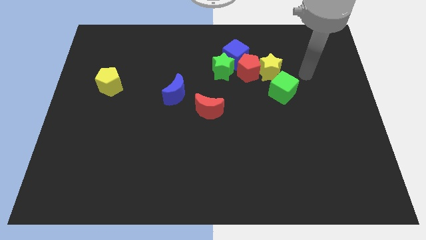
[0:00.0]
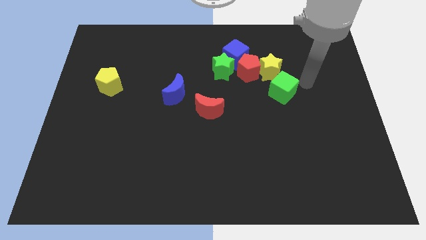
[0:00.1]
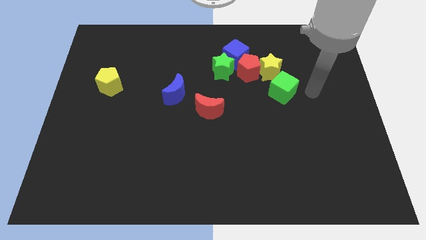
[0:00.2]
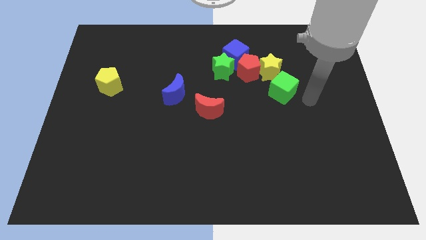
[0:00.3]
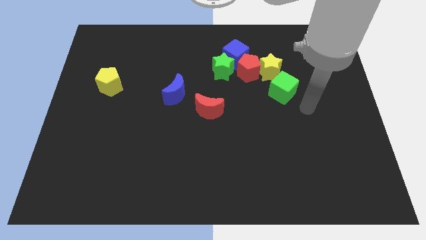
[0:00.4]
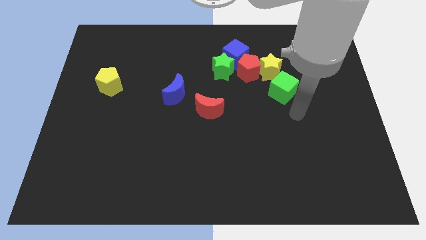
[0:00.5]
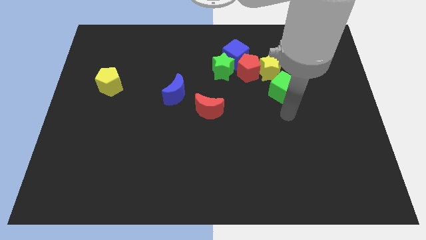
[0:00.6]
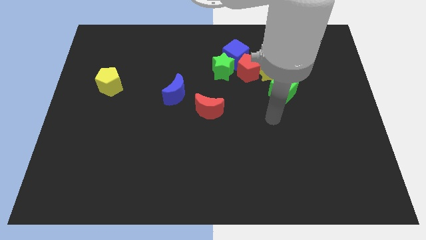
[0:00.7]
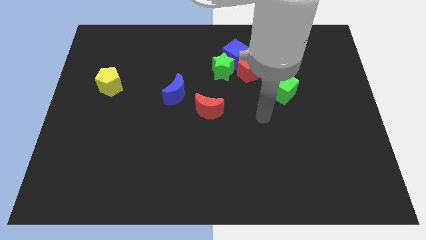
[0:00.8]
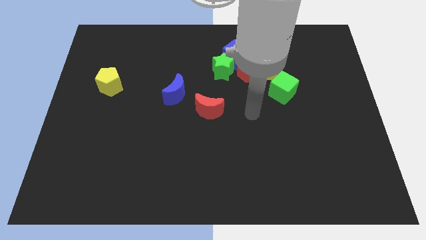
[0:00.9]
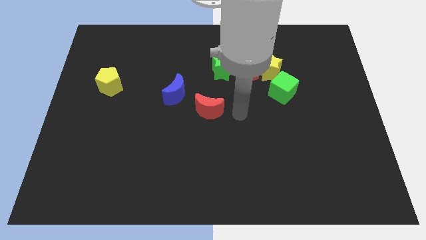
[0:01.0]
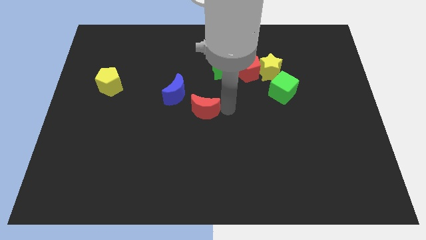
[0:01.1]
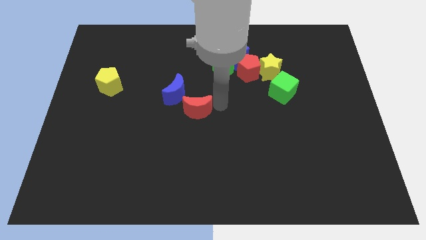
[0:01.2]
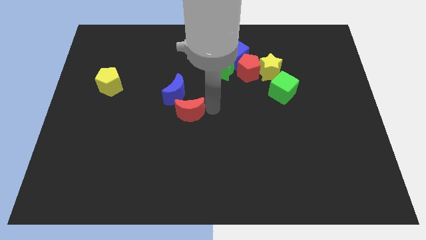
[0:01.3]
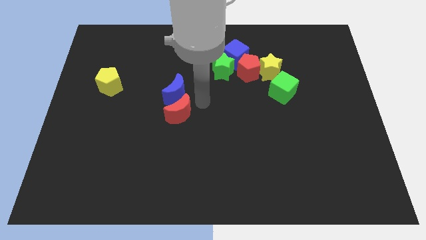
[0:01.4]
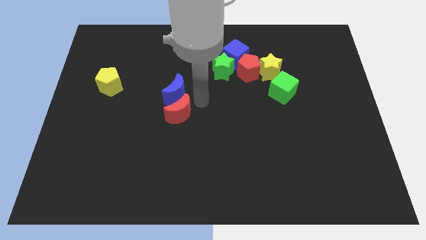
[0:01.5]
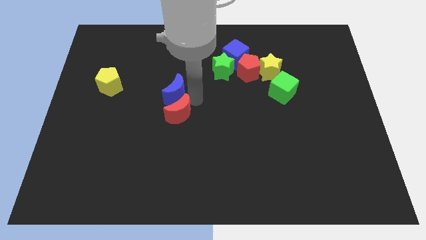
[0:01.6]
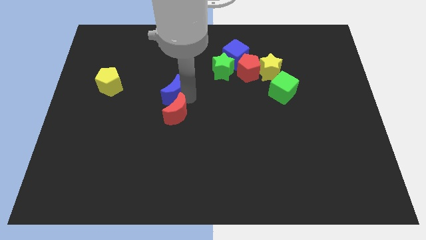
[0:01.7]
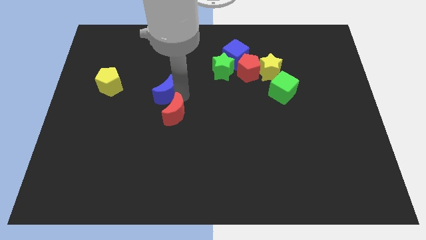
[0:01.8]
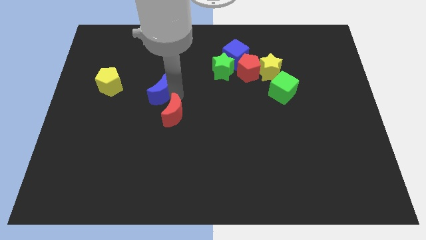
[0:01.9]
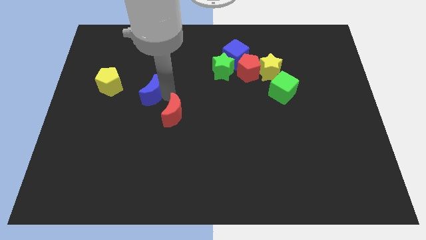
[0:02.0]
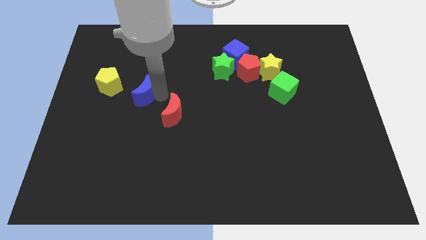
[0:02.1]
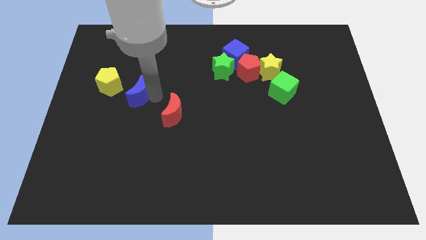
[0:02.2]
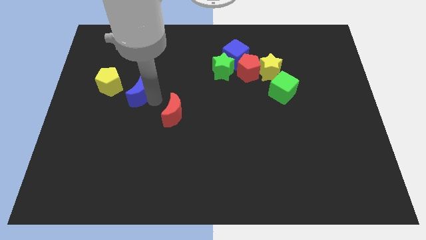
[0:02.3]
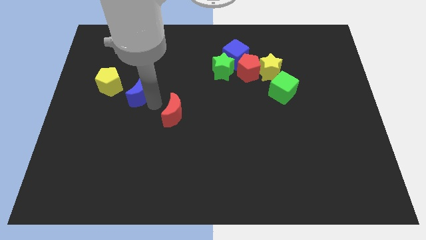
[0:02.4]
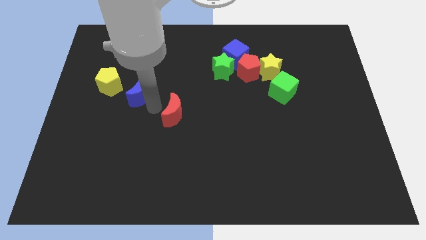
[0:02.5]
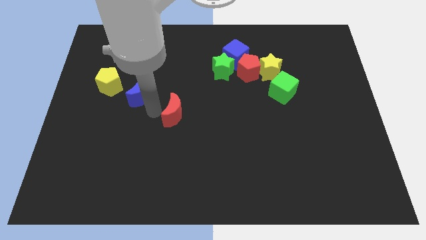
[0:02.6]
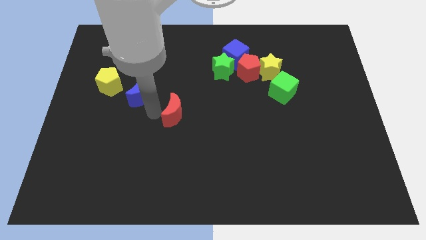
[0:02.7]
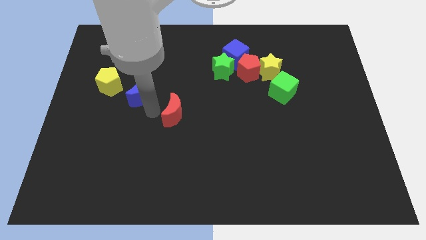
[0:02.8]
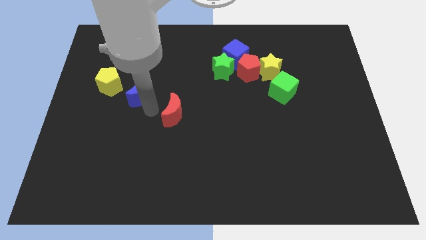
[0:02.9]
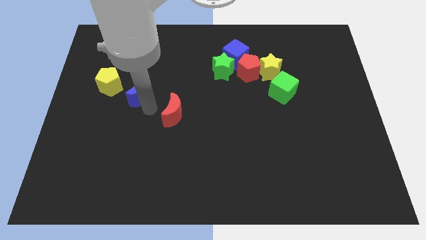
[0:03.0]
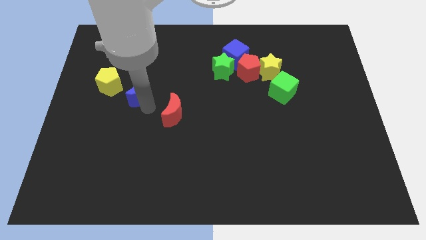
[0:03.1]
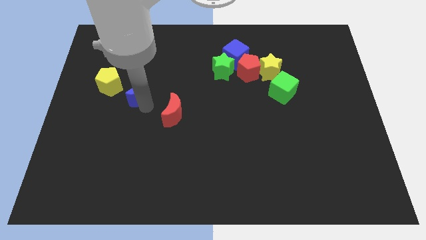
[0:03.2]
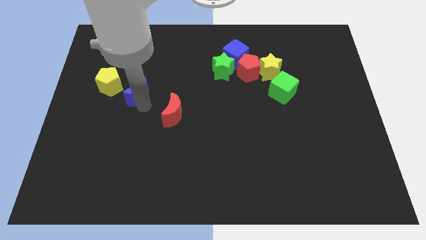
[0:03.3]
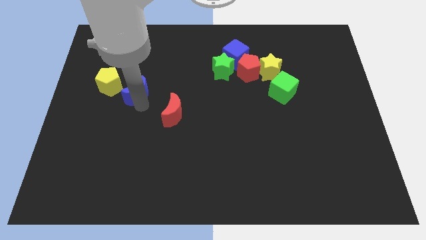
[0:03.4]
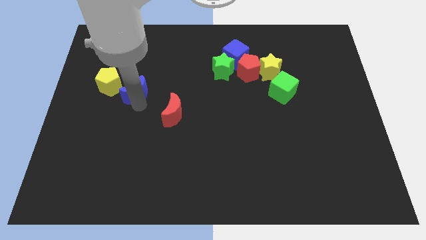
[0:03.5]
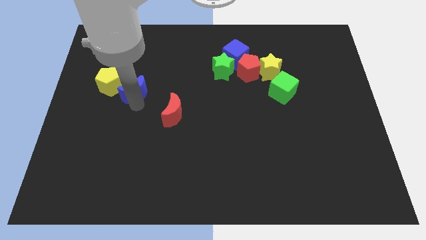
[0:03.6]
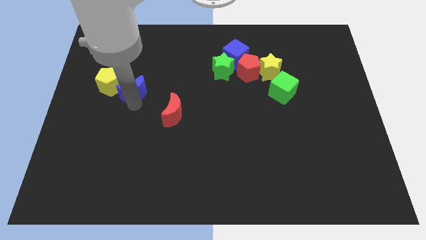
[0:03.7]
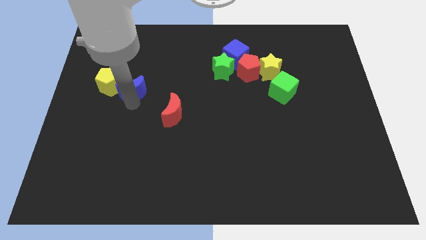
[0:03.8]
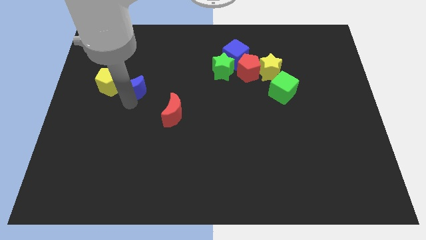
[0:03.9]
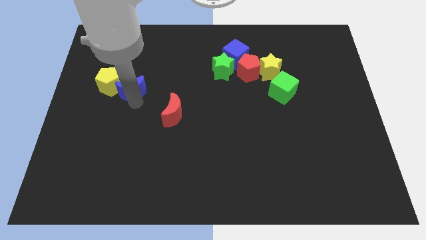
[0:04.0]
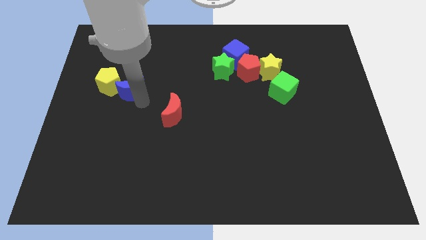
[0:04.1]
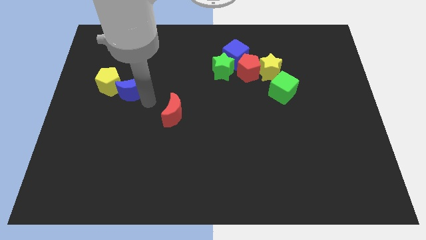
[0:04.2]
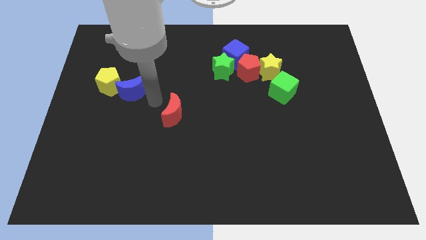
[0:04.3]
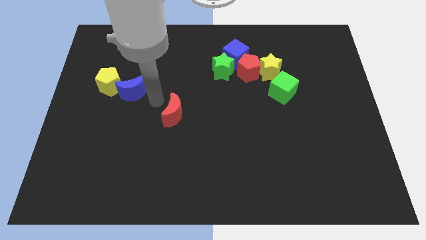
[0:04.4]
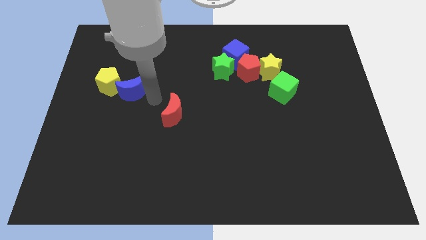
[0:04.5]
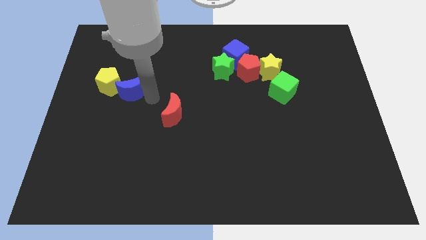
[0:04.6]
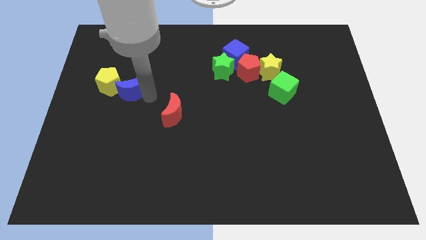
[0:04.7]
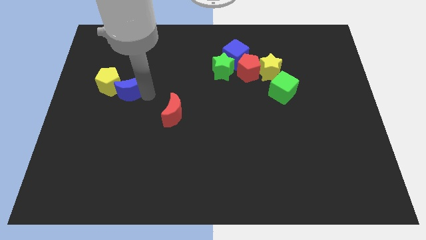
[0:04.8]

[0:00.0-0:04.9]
move the blue moon next to the yellow pentagon

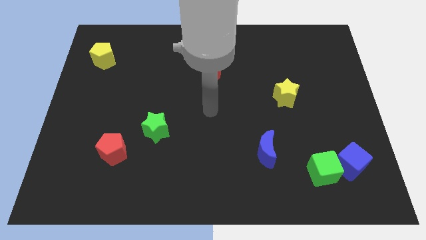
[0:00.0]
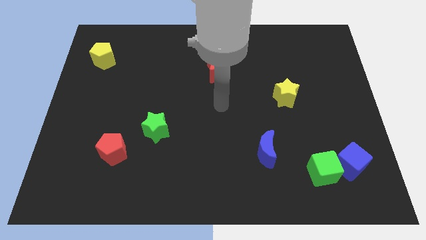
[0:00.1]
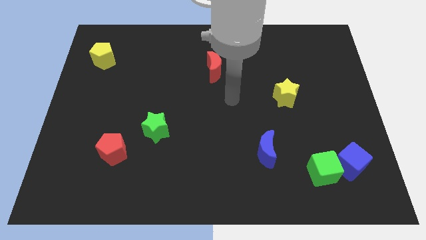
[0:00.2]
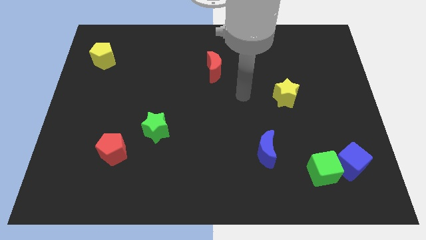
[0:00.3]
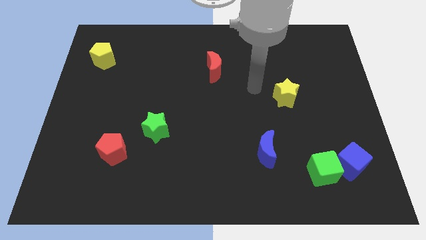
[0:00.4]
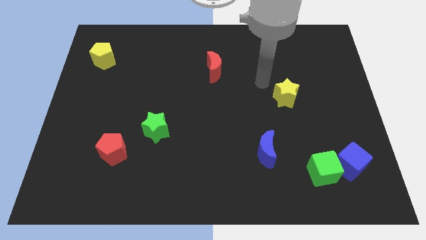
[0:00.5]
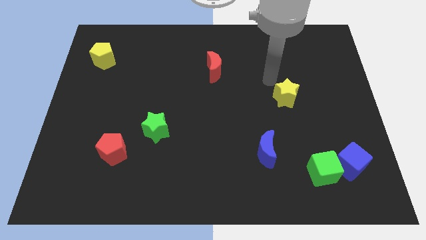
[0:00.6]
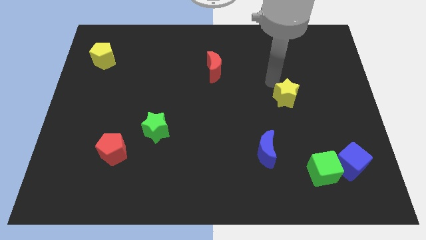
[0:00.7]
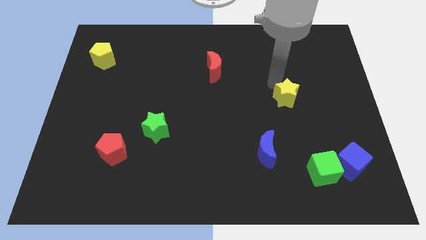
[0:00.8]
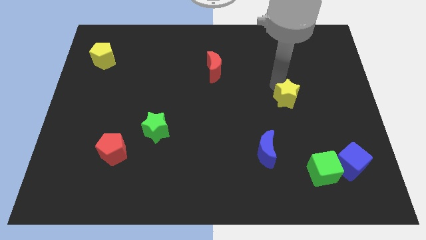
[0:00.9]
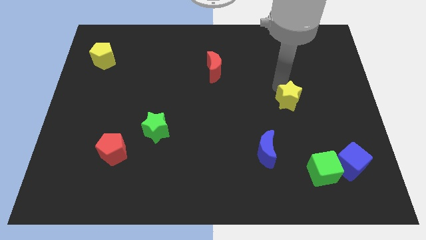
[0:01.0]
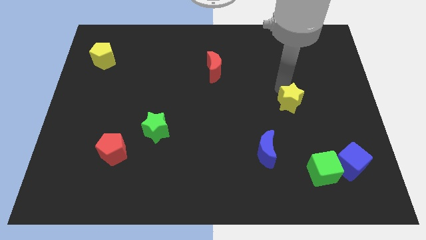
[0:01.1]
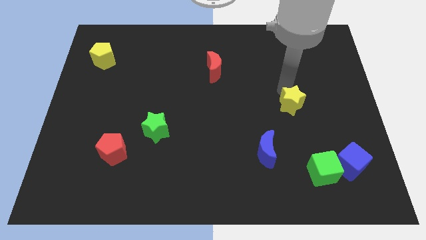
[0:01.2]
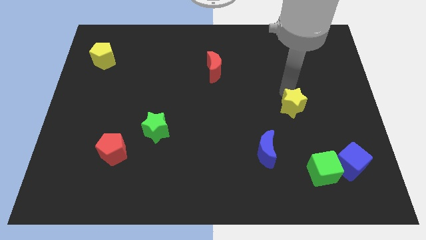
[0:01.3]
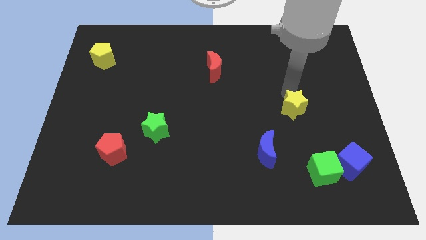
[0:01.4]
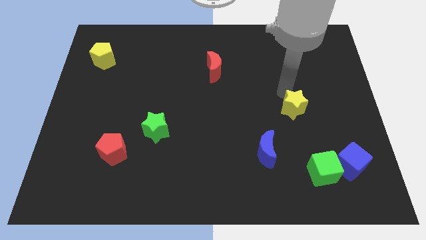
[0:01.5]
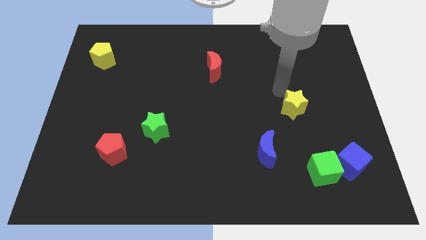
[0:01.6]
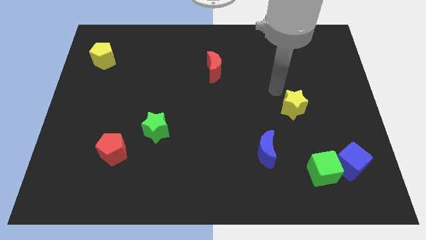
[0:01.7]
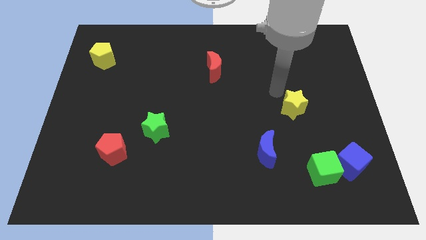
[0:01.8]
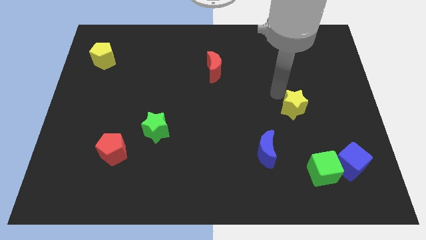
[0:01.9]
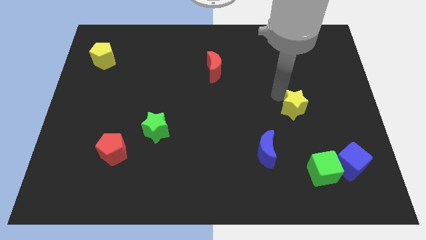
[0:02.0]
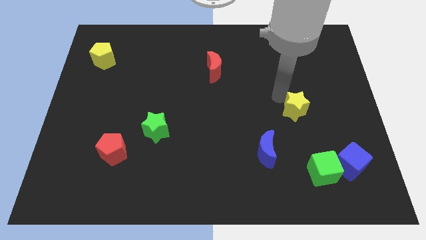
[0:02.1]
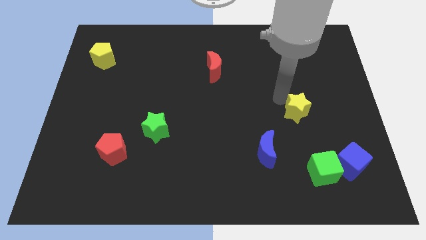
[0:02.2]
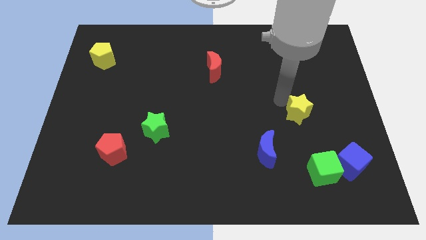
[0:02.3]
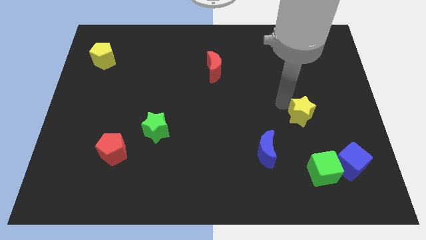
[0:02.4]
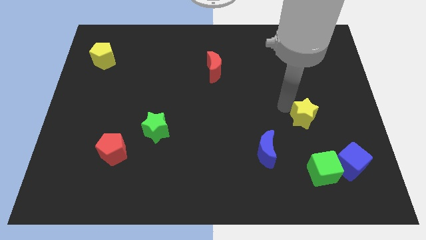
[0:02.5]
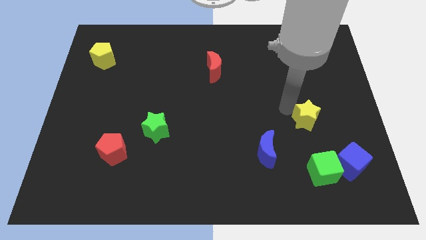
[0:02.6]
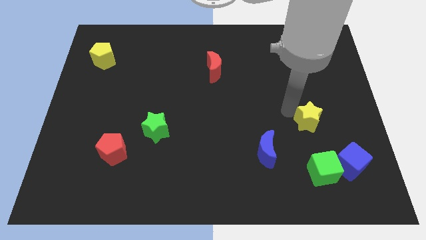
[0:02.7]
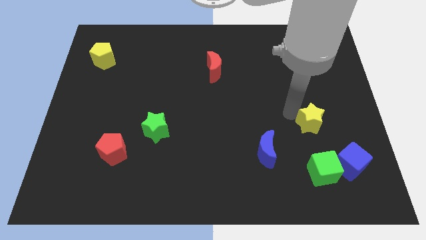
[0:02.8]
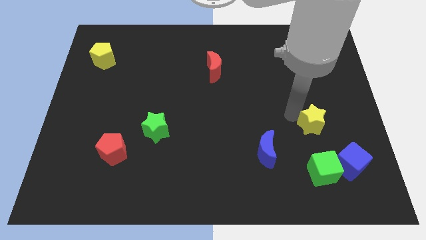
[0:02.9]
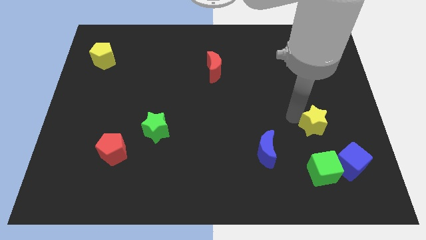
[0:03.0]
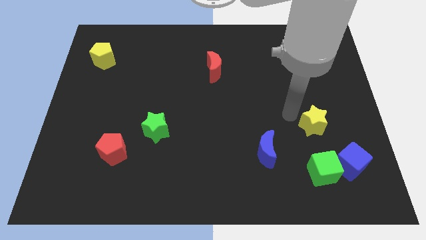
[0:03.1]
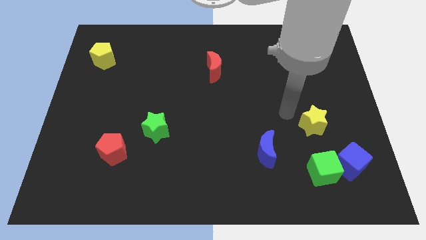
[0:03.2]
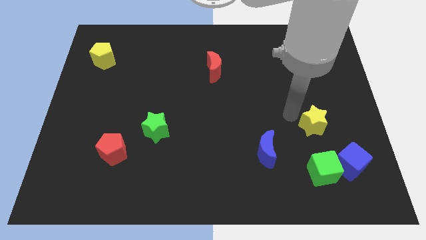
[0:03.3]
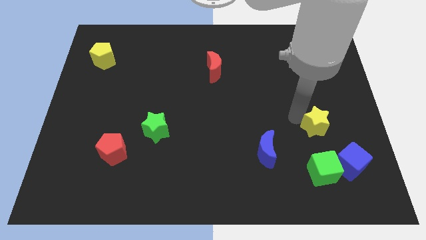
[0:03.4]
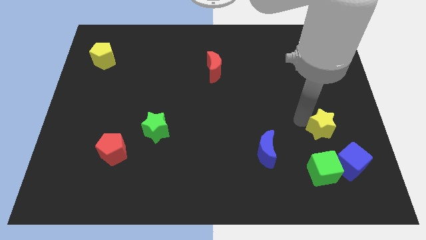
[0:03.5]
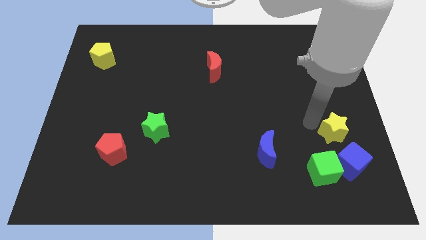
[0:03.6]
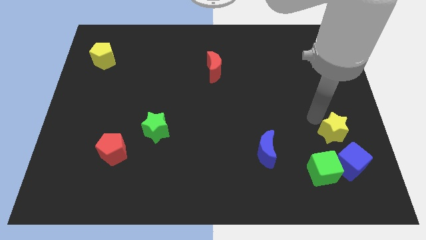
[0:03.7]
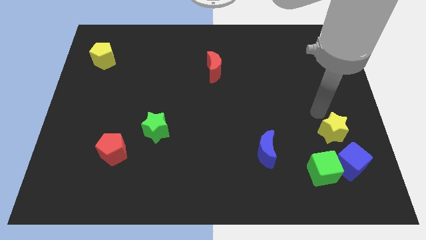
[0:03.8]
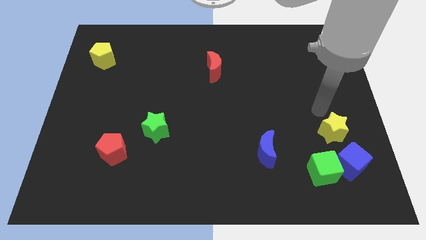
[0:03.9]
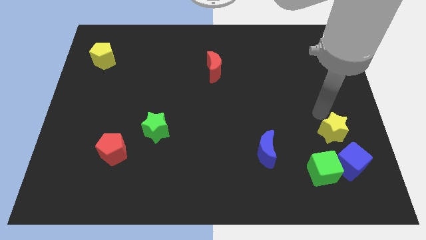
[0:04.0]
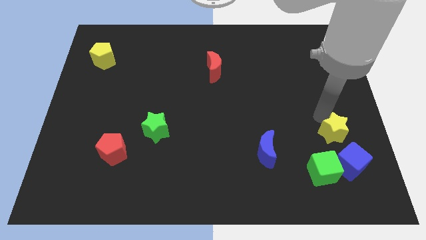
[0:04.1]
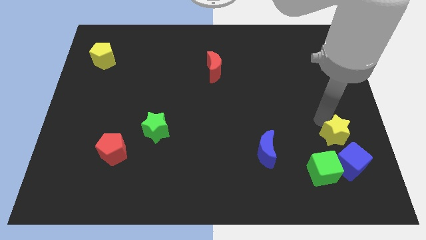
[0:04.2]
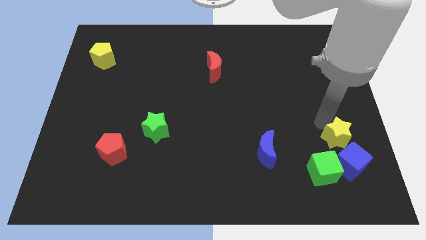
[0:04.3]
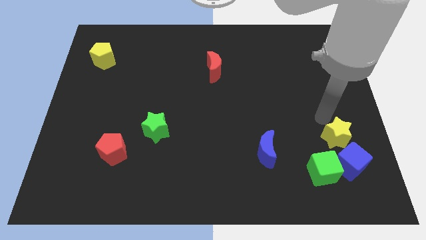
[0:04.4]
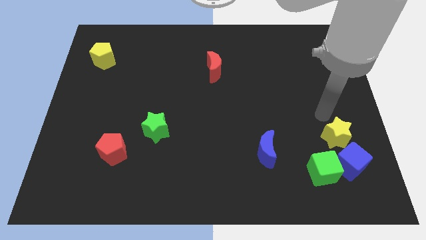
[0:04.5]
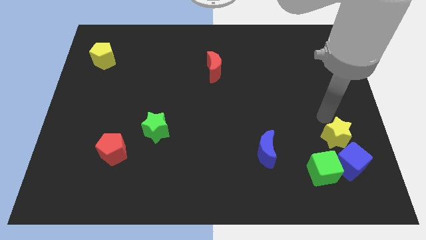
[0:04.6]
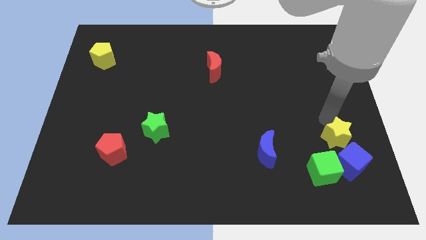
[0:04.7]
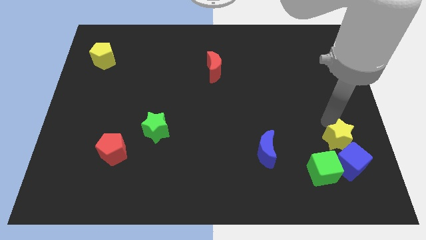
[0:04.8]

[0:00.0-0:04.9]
put the yellow star next to the blue cube
